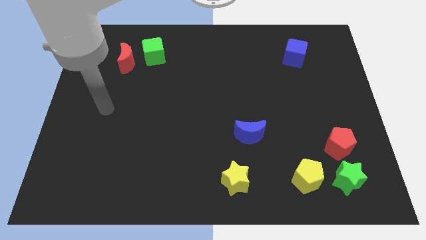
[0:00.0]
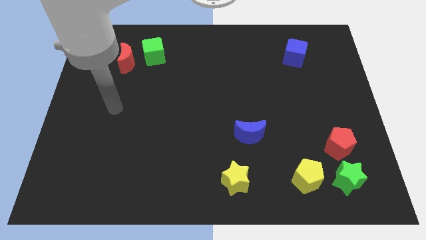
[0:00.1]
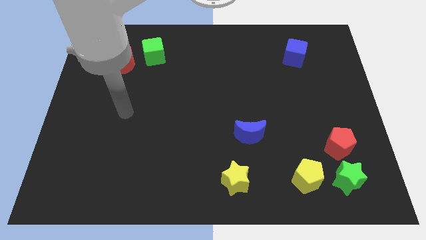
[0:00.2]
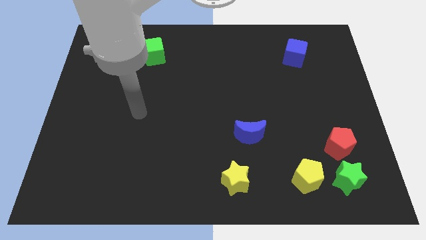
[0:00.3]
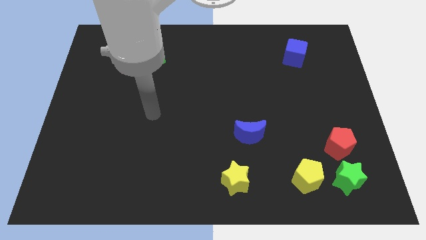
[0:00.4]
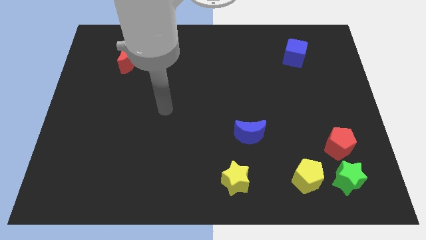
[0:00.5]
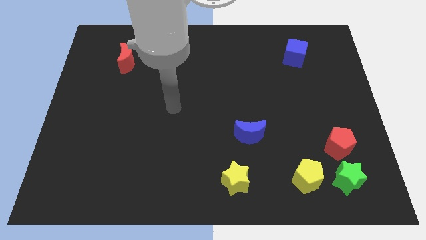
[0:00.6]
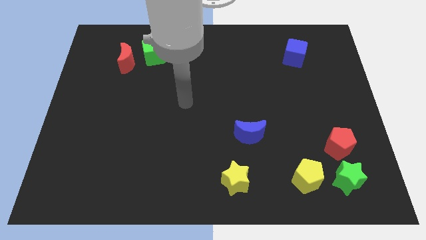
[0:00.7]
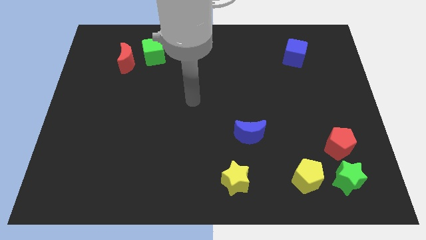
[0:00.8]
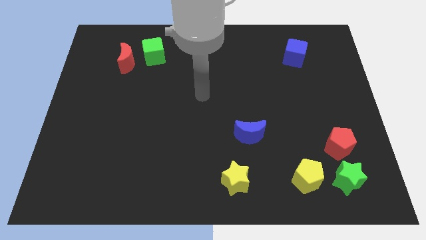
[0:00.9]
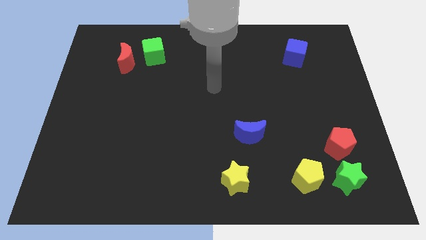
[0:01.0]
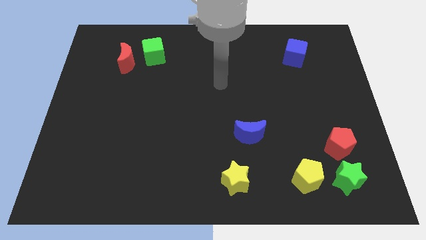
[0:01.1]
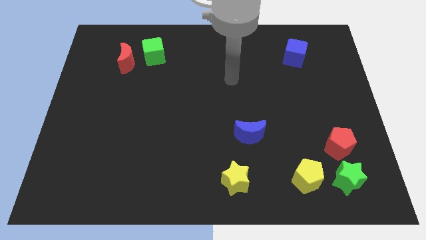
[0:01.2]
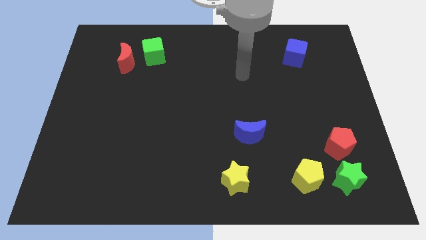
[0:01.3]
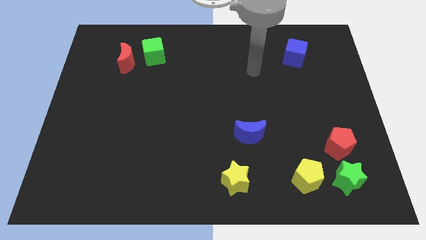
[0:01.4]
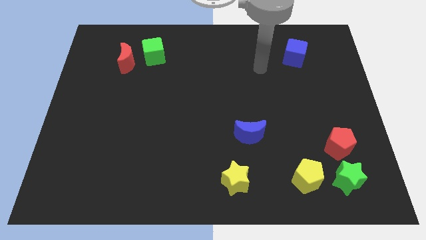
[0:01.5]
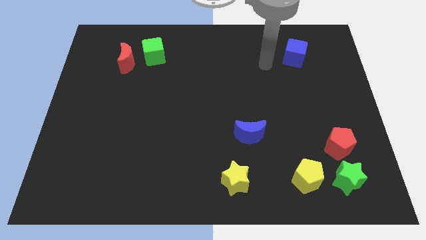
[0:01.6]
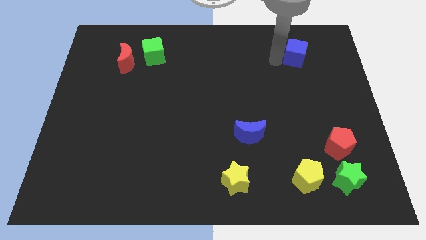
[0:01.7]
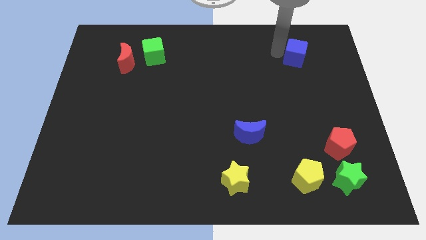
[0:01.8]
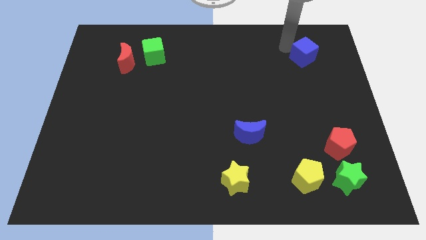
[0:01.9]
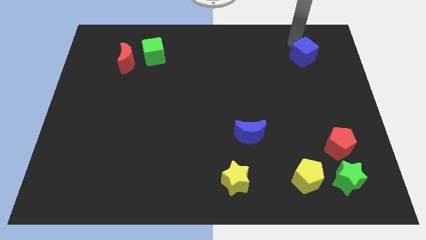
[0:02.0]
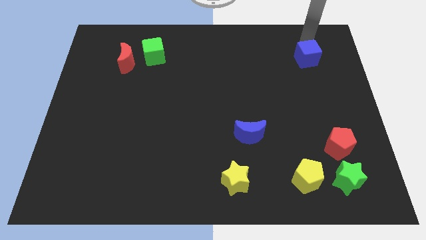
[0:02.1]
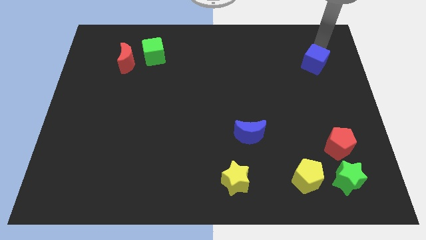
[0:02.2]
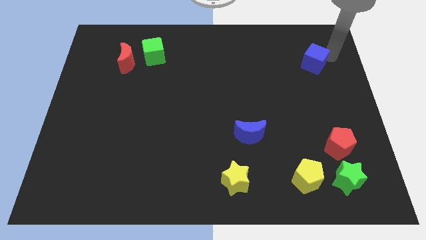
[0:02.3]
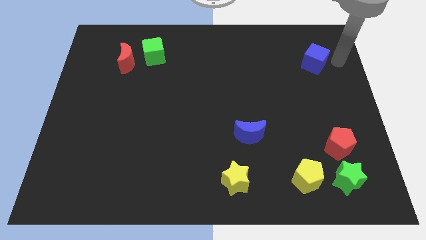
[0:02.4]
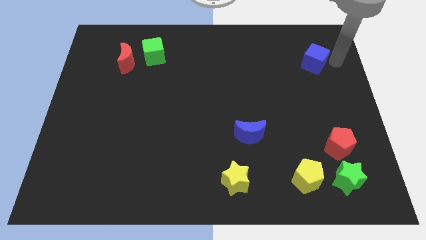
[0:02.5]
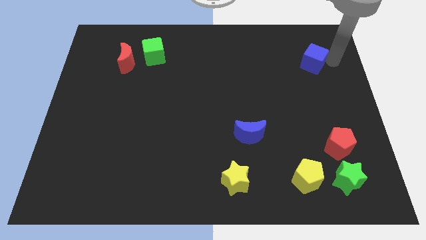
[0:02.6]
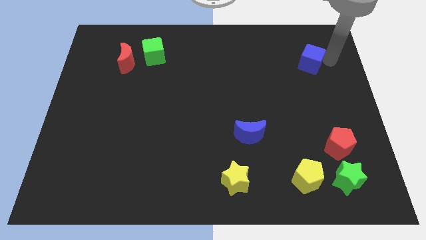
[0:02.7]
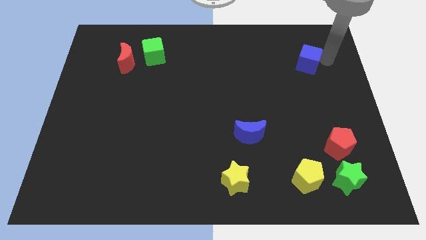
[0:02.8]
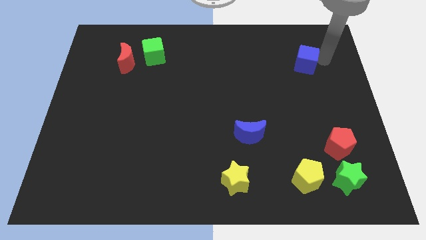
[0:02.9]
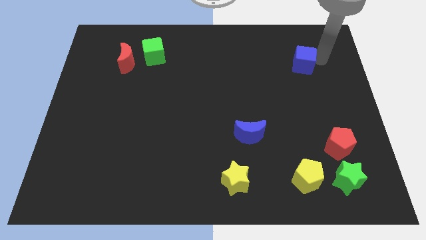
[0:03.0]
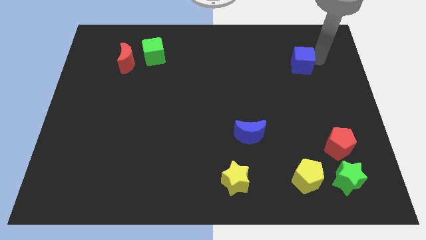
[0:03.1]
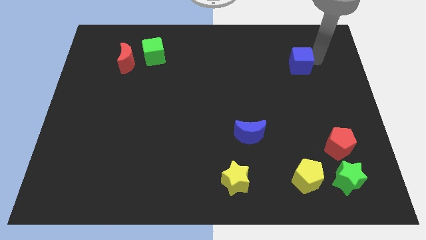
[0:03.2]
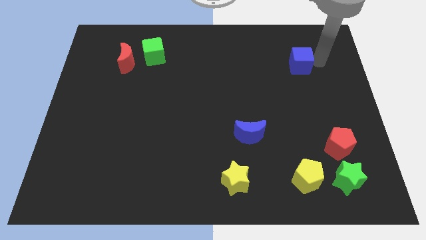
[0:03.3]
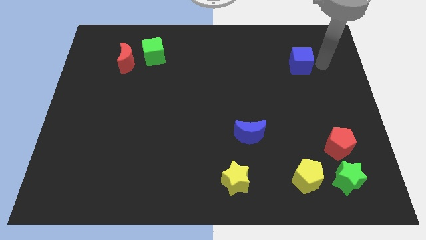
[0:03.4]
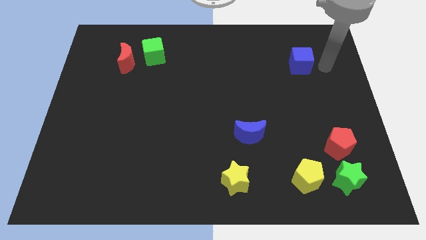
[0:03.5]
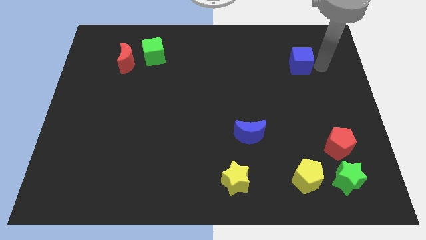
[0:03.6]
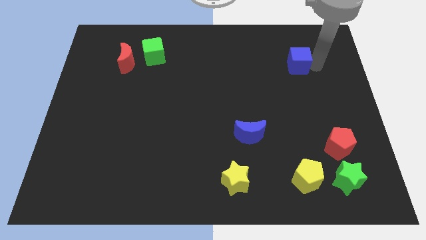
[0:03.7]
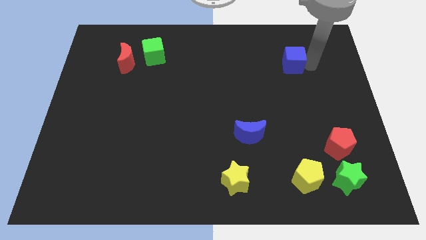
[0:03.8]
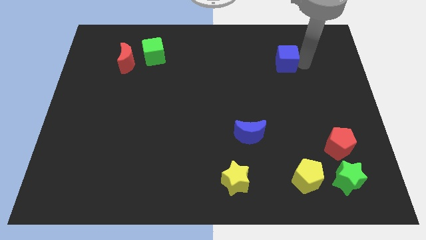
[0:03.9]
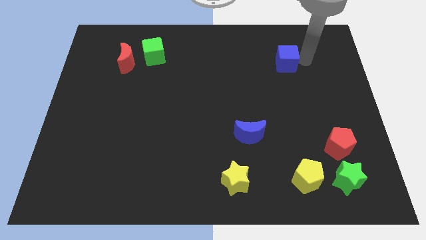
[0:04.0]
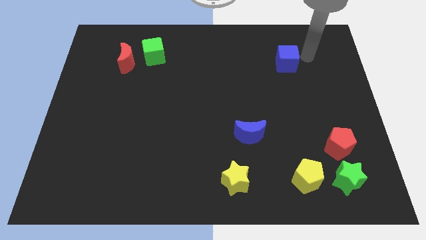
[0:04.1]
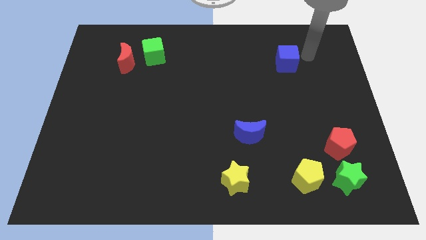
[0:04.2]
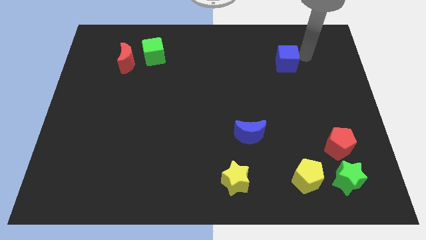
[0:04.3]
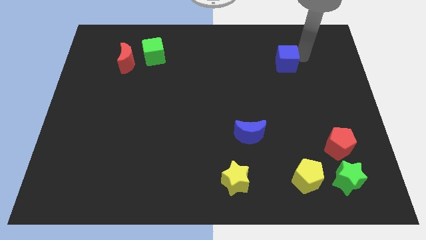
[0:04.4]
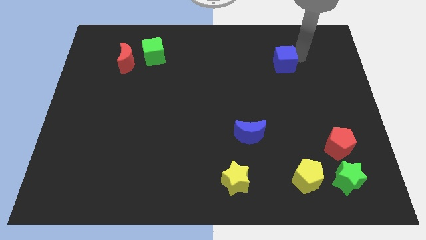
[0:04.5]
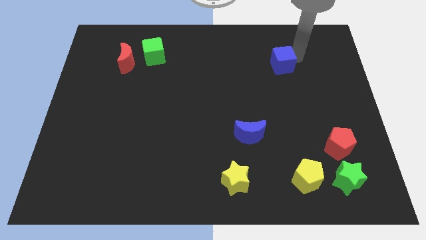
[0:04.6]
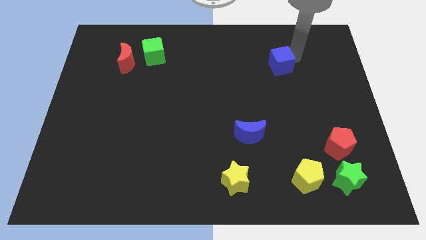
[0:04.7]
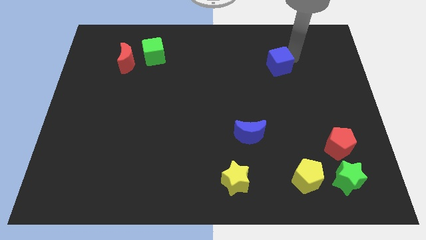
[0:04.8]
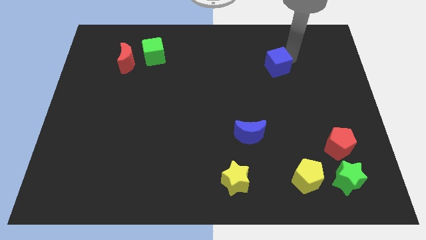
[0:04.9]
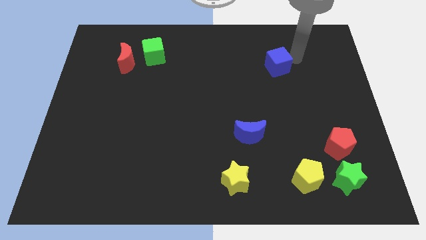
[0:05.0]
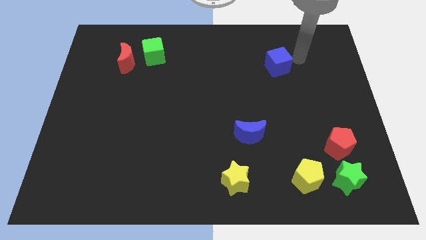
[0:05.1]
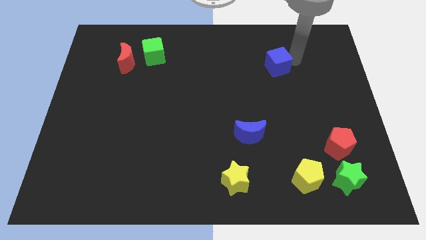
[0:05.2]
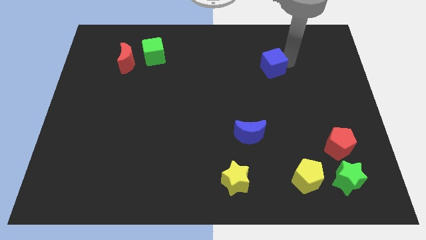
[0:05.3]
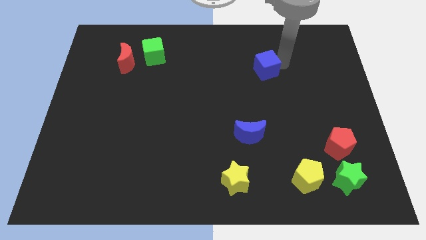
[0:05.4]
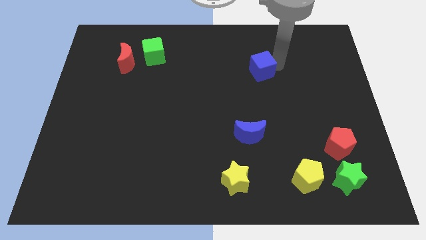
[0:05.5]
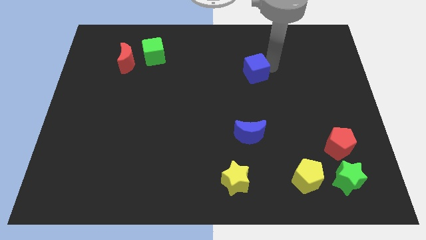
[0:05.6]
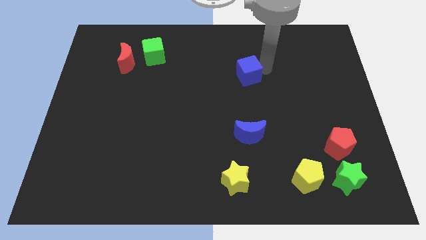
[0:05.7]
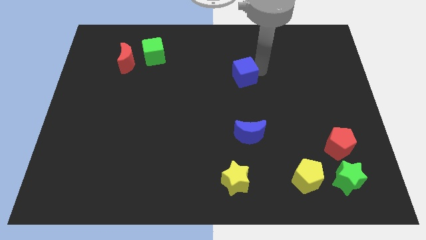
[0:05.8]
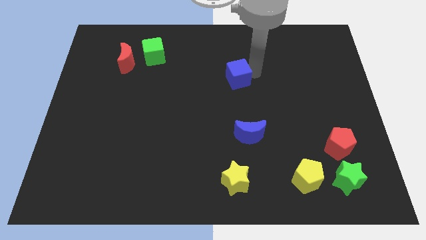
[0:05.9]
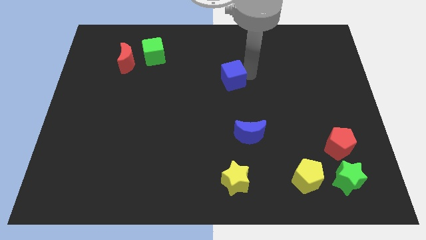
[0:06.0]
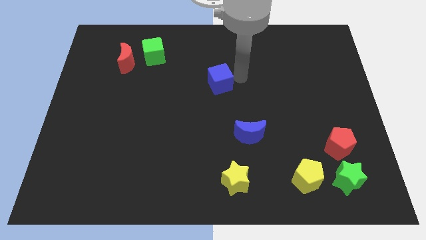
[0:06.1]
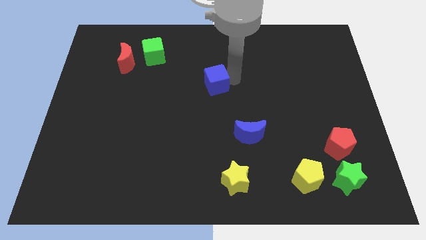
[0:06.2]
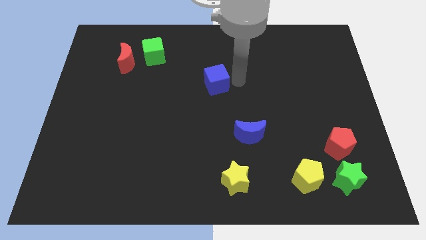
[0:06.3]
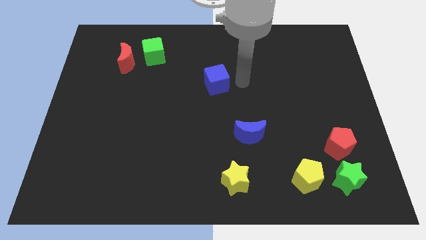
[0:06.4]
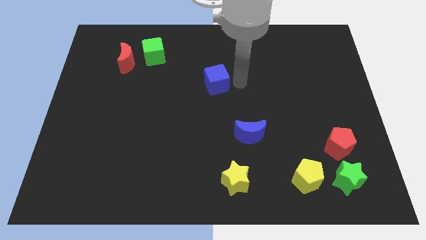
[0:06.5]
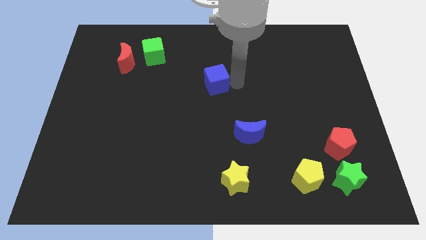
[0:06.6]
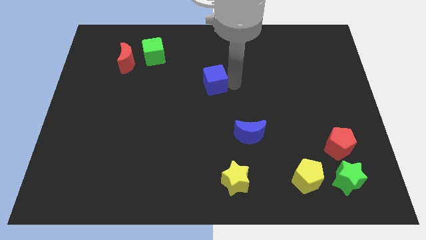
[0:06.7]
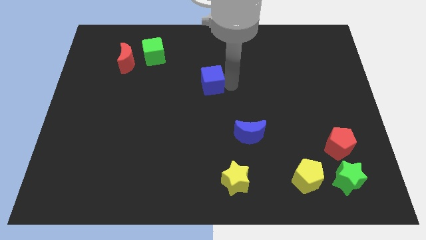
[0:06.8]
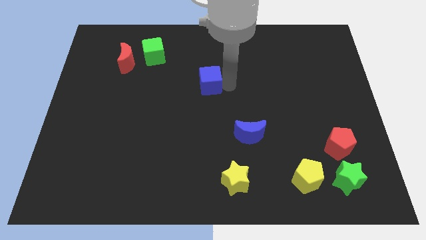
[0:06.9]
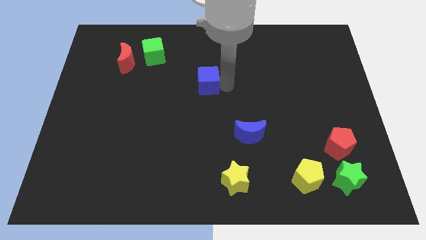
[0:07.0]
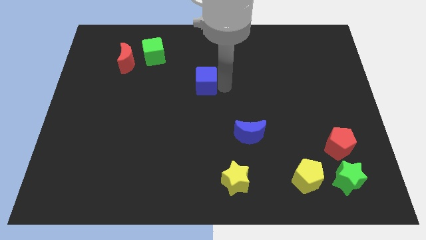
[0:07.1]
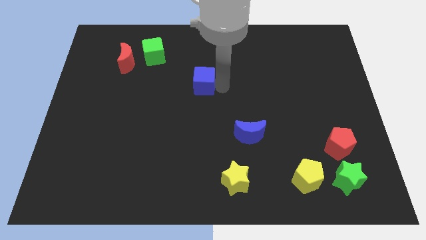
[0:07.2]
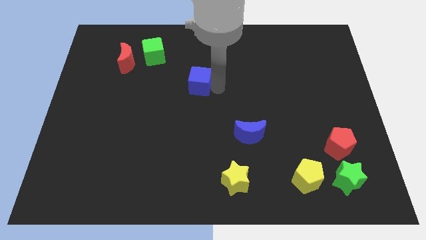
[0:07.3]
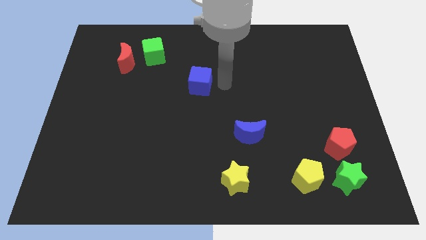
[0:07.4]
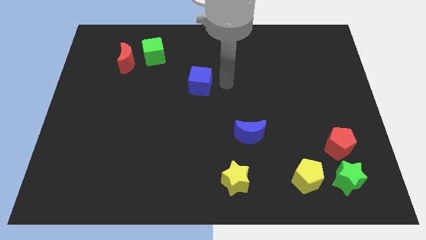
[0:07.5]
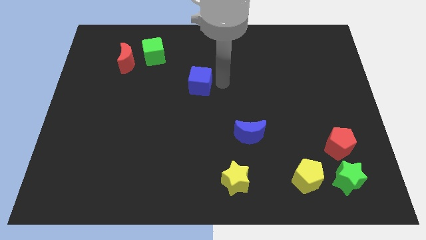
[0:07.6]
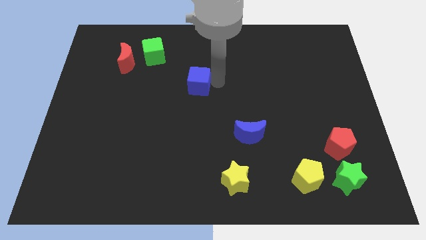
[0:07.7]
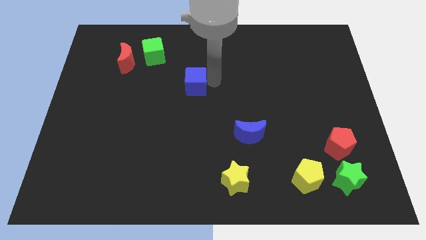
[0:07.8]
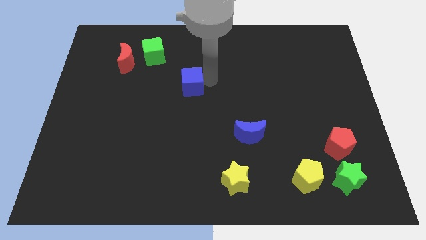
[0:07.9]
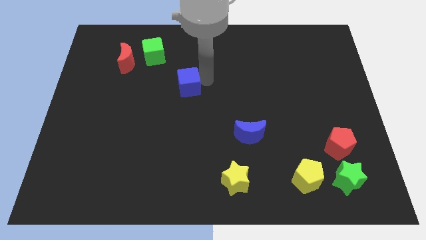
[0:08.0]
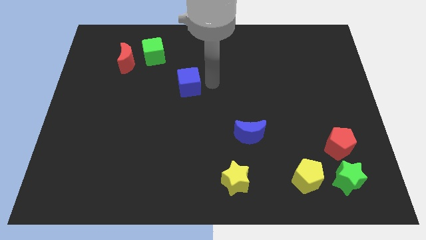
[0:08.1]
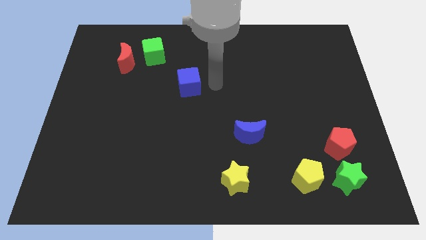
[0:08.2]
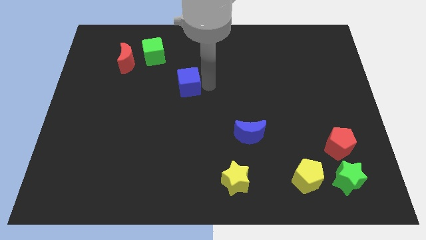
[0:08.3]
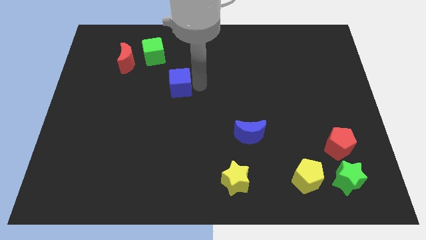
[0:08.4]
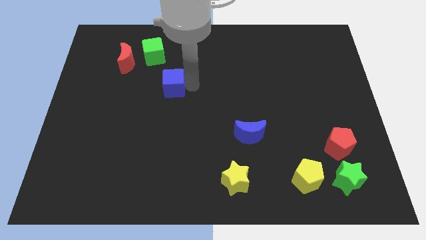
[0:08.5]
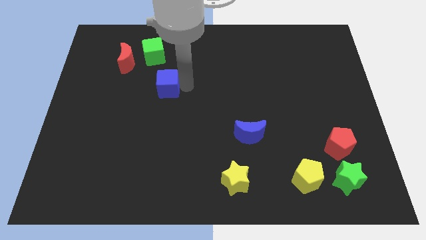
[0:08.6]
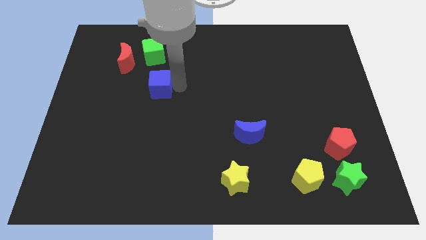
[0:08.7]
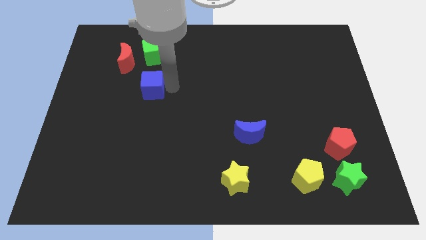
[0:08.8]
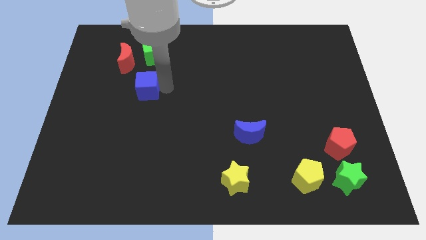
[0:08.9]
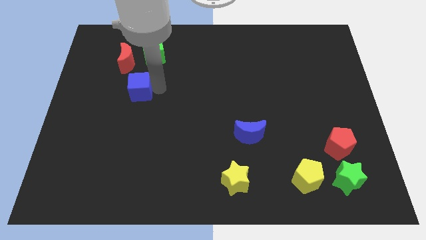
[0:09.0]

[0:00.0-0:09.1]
put the blue cube below the red moon
